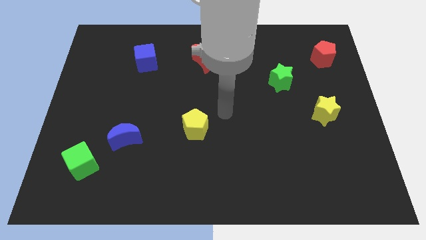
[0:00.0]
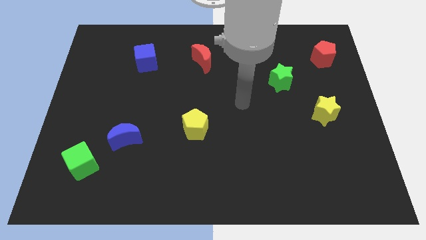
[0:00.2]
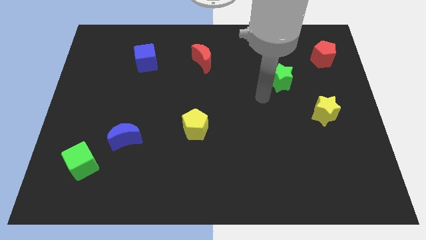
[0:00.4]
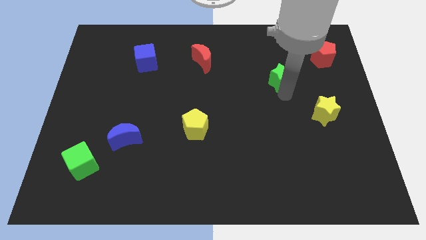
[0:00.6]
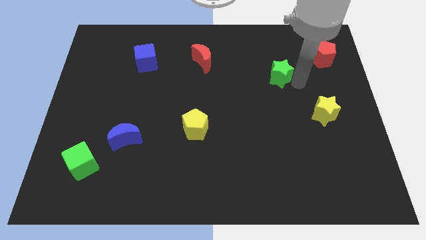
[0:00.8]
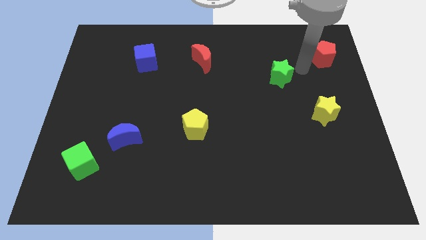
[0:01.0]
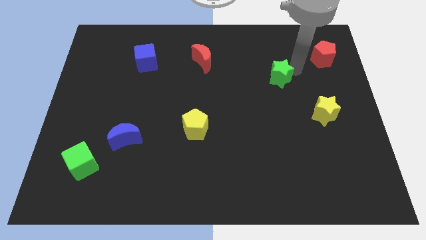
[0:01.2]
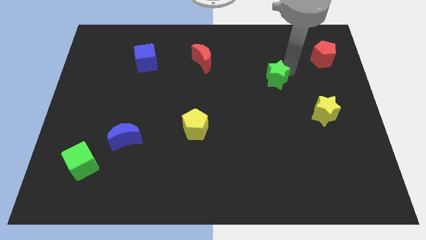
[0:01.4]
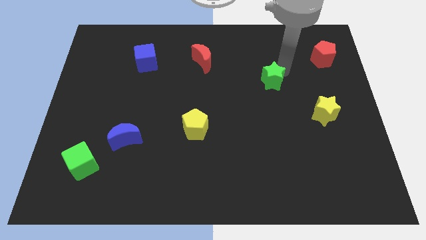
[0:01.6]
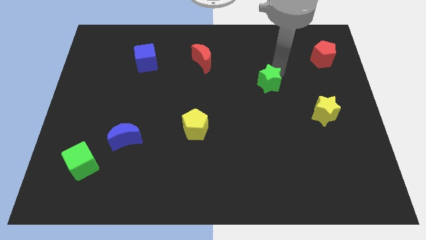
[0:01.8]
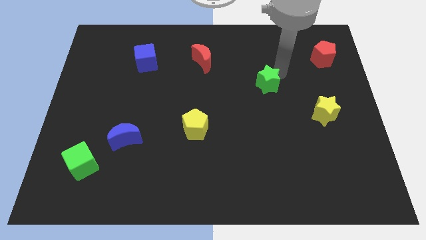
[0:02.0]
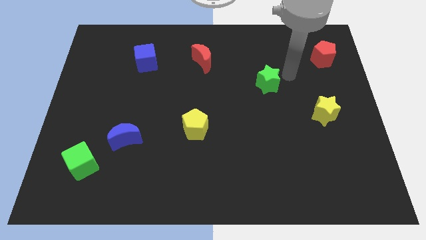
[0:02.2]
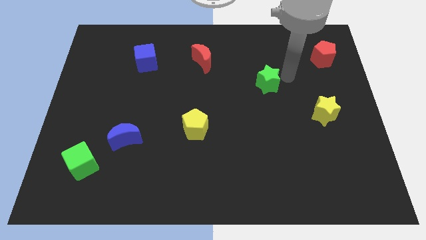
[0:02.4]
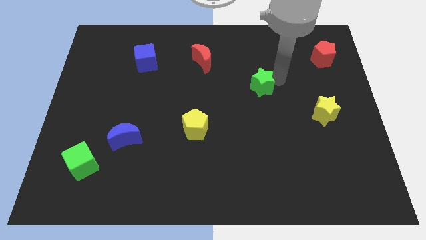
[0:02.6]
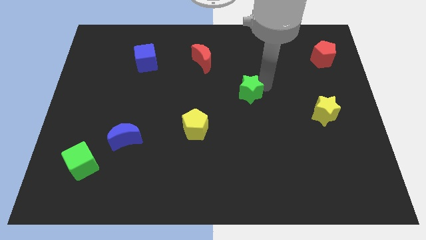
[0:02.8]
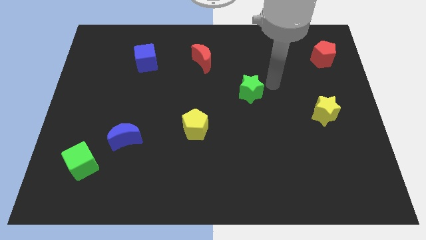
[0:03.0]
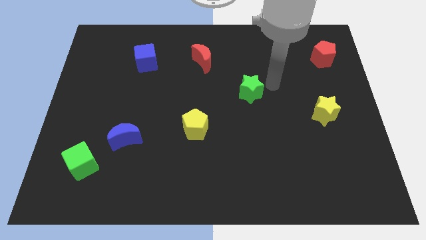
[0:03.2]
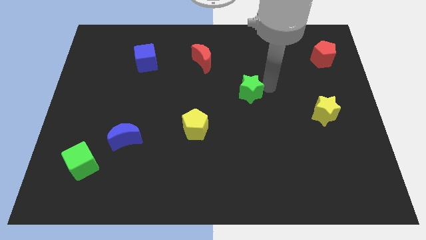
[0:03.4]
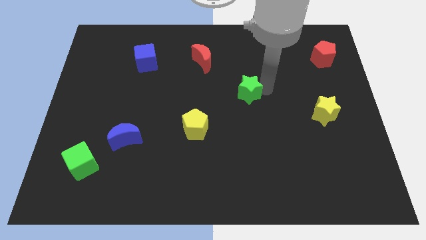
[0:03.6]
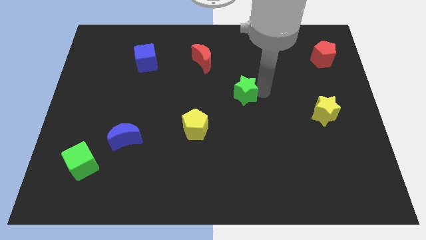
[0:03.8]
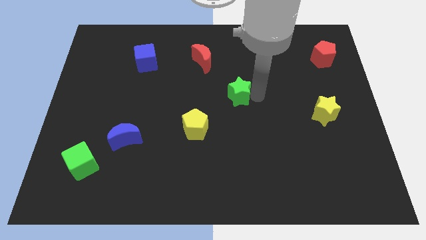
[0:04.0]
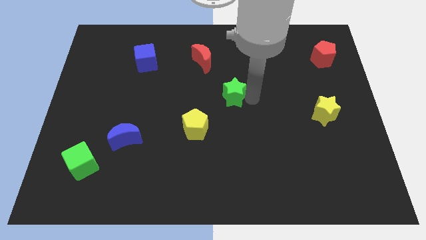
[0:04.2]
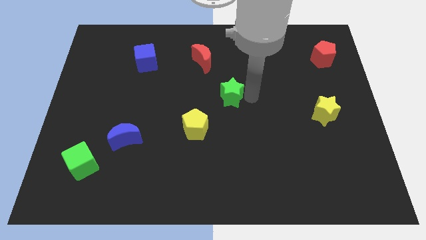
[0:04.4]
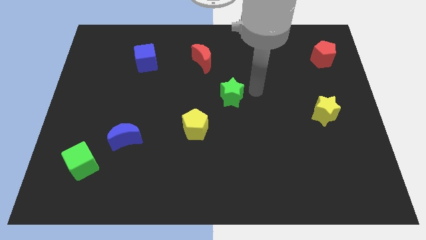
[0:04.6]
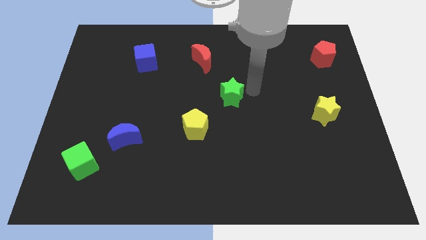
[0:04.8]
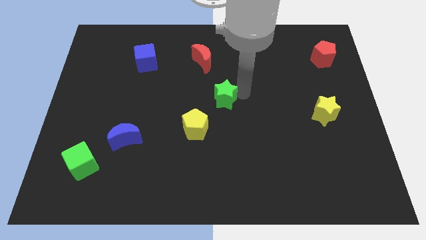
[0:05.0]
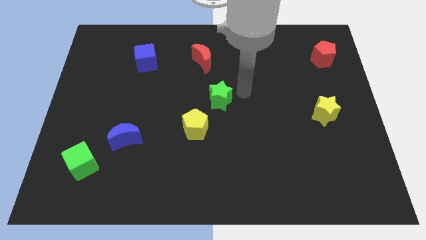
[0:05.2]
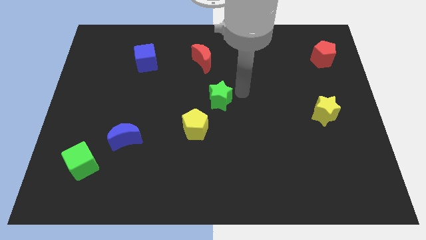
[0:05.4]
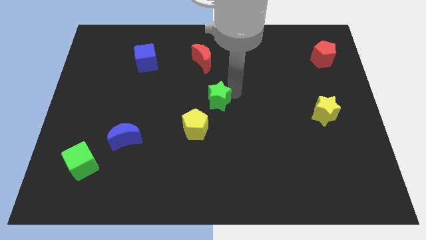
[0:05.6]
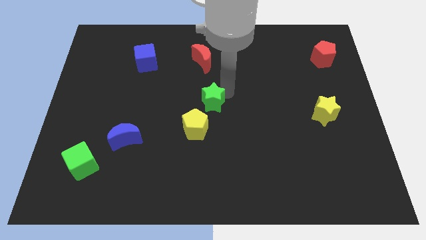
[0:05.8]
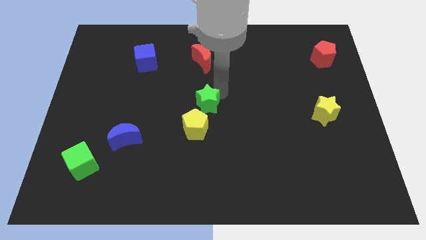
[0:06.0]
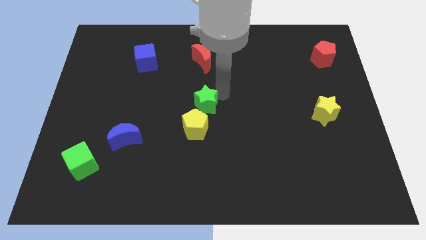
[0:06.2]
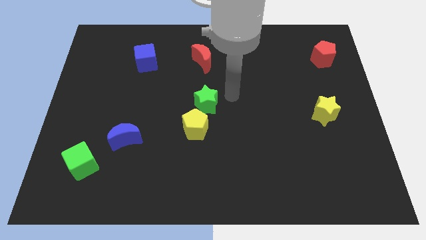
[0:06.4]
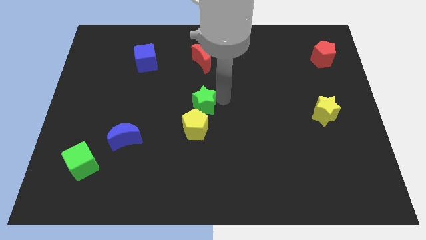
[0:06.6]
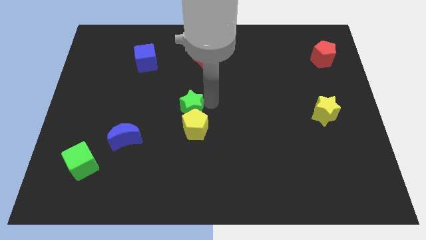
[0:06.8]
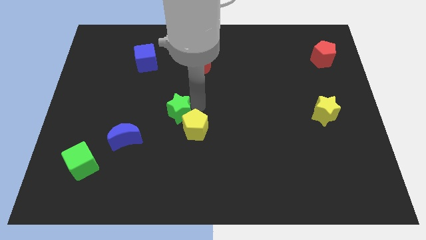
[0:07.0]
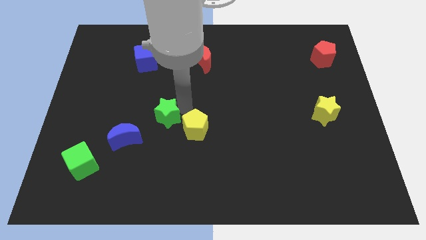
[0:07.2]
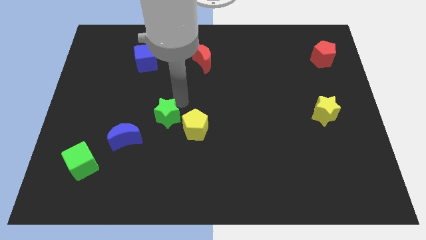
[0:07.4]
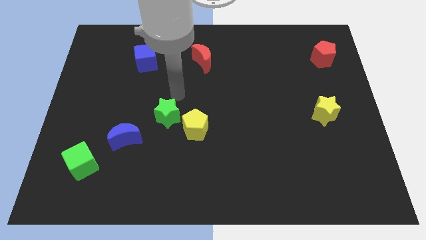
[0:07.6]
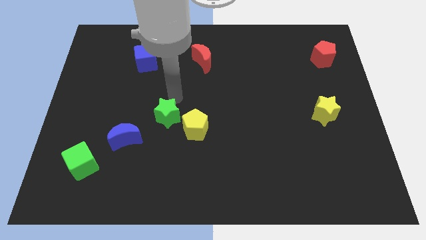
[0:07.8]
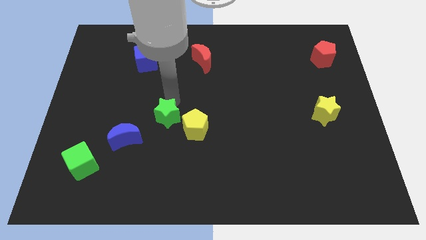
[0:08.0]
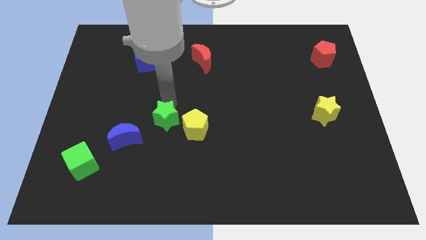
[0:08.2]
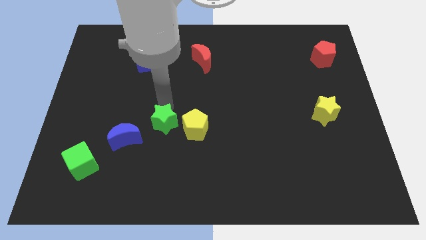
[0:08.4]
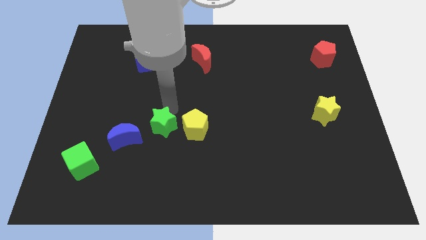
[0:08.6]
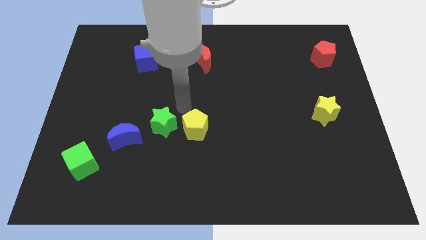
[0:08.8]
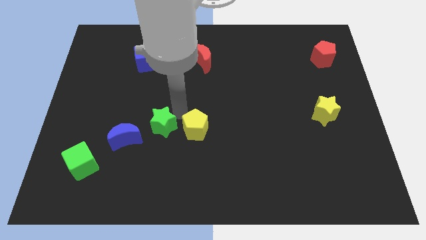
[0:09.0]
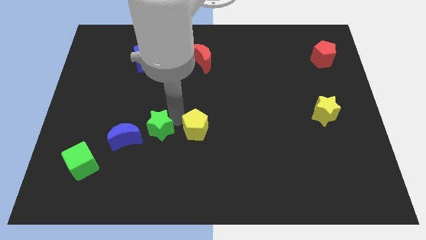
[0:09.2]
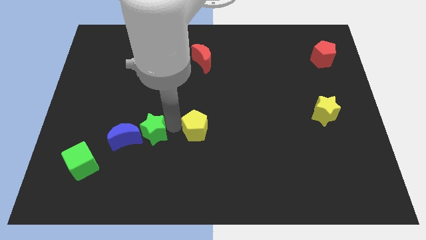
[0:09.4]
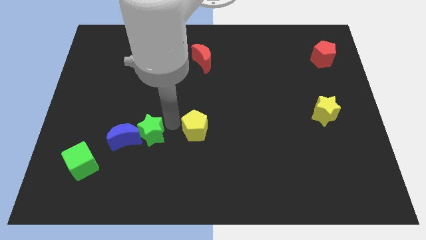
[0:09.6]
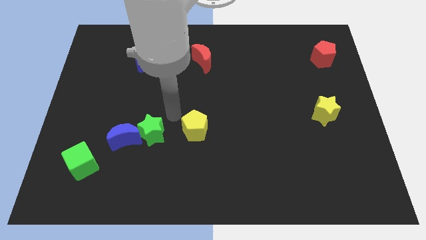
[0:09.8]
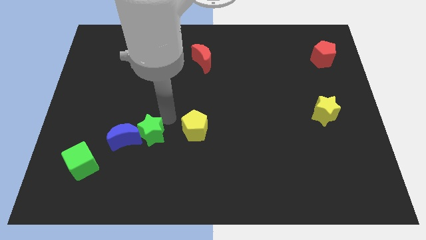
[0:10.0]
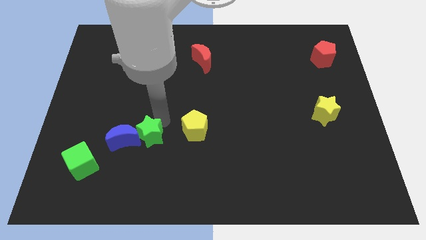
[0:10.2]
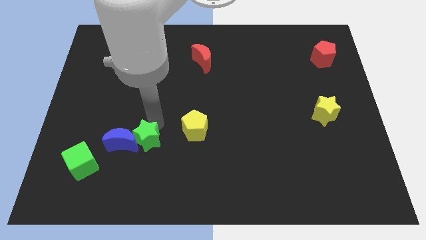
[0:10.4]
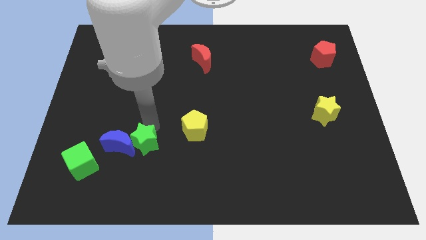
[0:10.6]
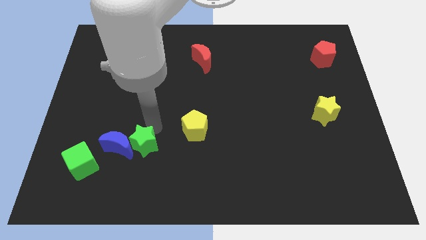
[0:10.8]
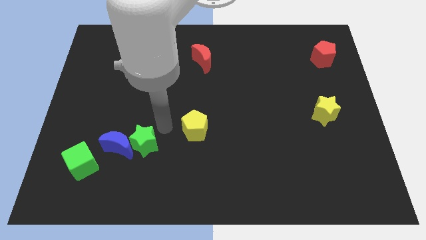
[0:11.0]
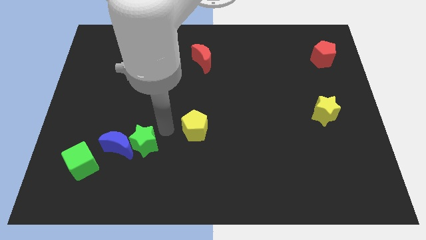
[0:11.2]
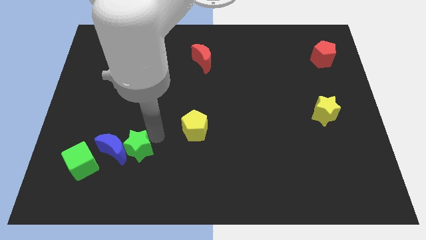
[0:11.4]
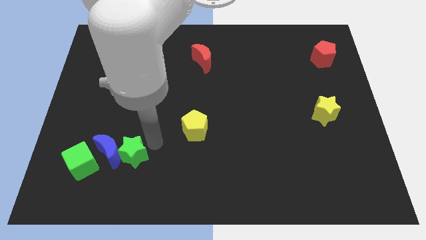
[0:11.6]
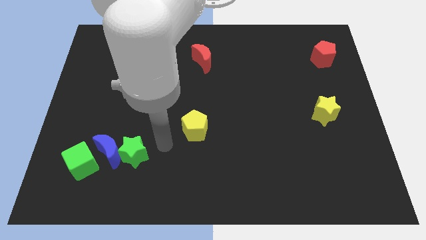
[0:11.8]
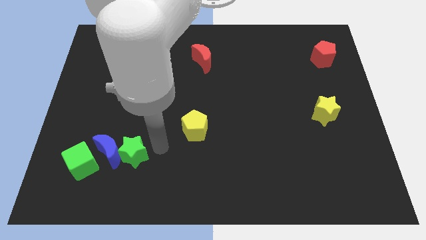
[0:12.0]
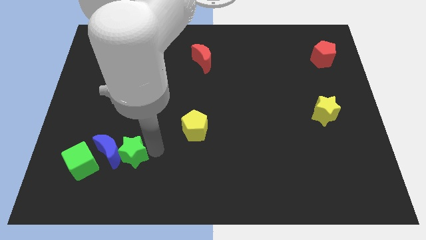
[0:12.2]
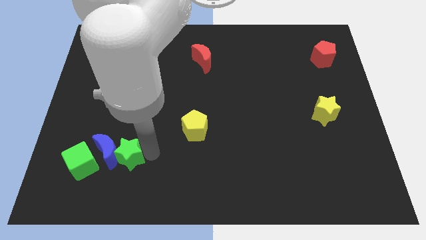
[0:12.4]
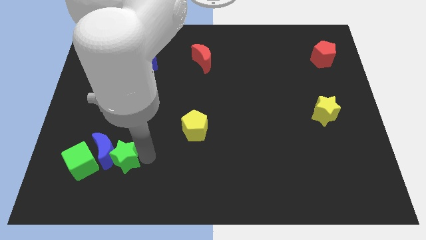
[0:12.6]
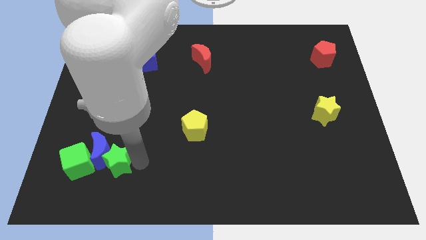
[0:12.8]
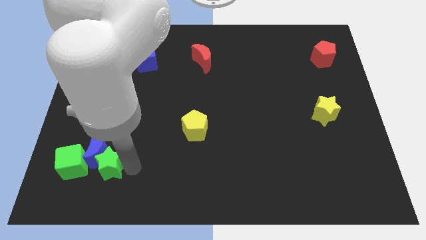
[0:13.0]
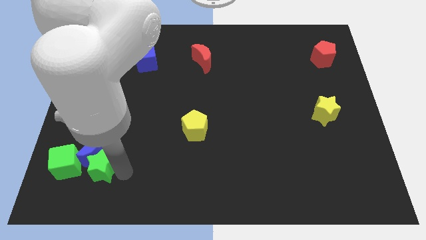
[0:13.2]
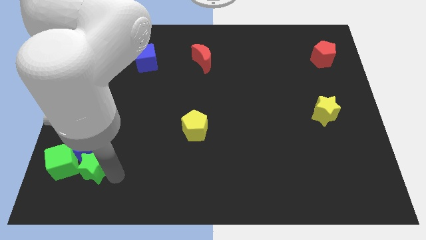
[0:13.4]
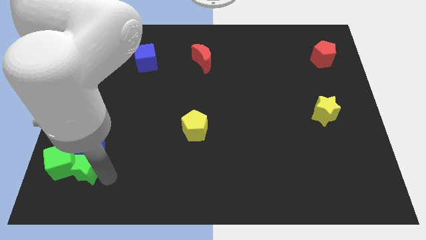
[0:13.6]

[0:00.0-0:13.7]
push the green star close to the green cube

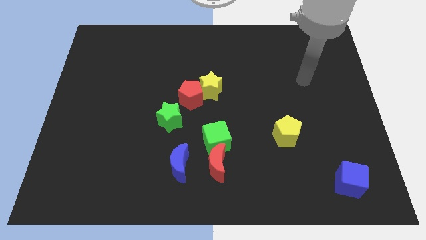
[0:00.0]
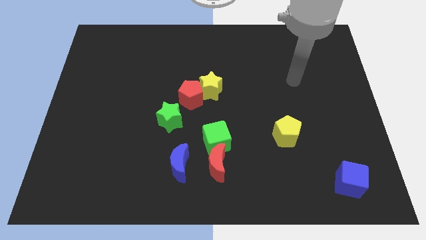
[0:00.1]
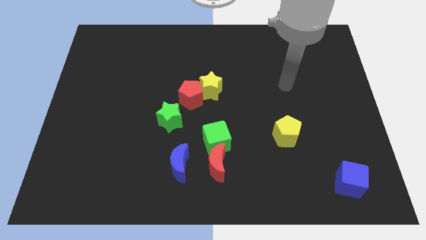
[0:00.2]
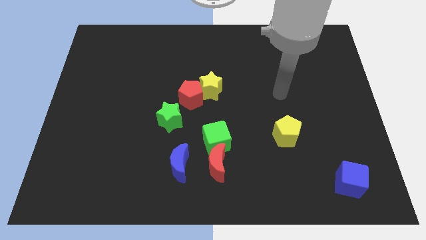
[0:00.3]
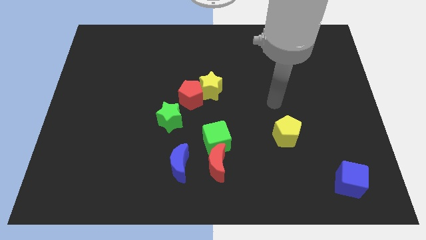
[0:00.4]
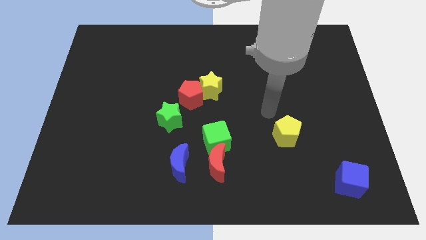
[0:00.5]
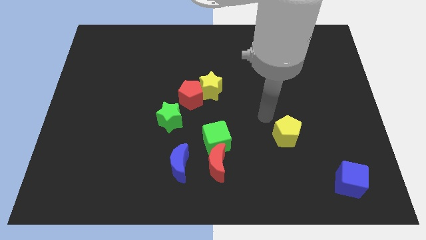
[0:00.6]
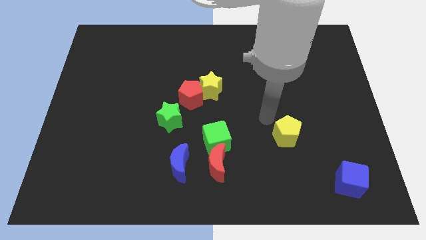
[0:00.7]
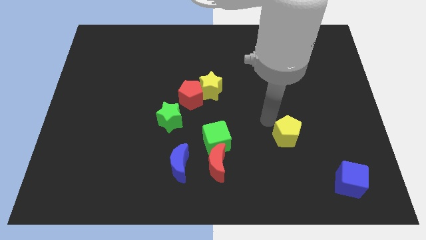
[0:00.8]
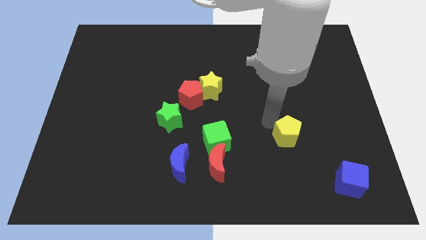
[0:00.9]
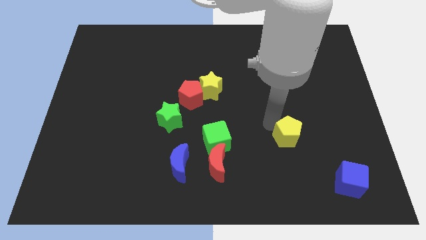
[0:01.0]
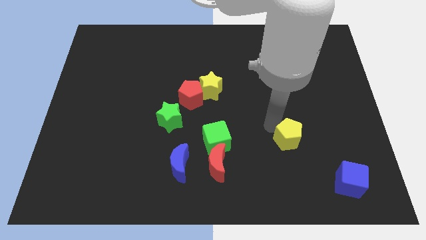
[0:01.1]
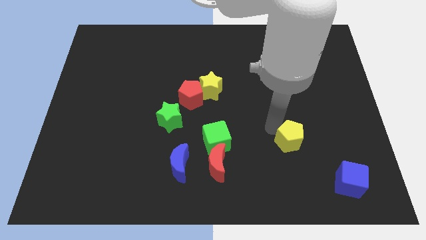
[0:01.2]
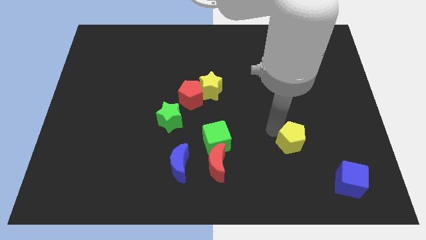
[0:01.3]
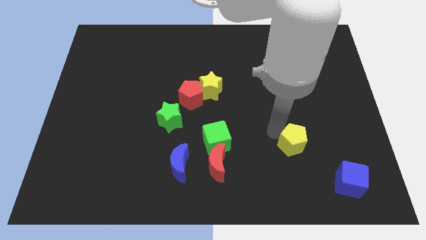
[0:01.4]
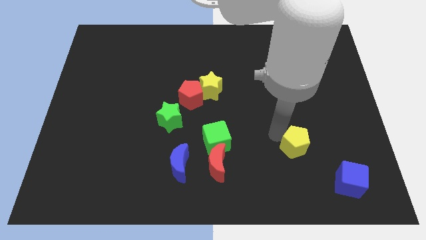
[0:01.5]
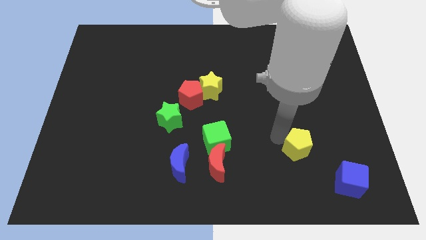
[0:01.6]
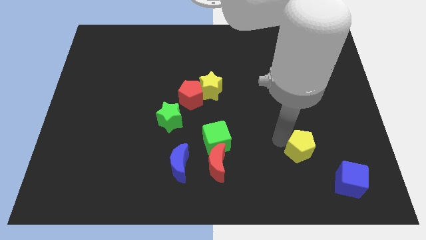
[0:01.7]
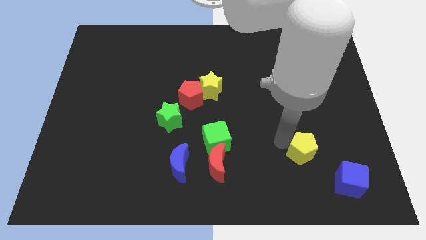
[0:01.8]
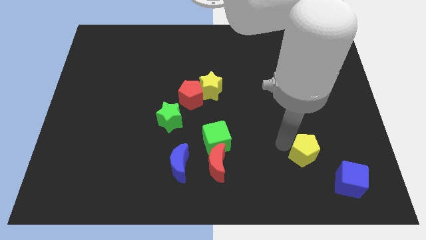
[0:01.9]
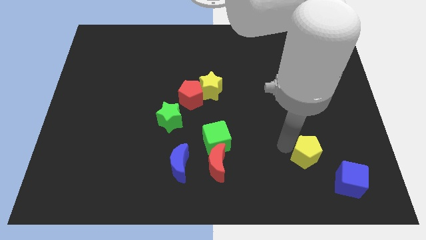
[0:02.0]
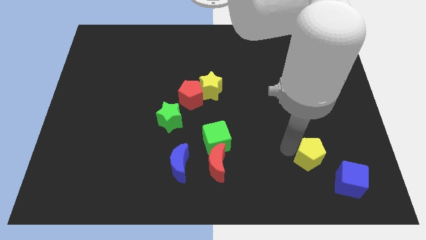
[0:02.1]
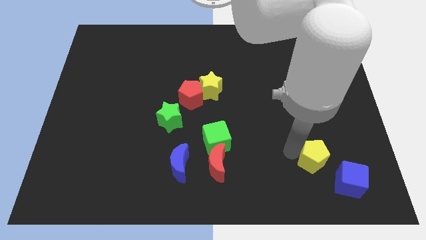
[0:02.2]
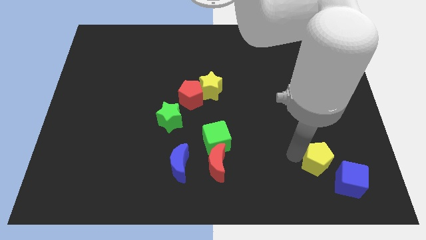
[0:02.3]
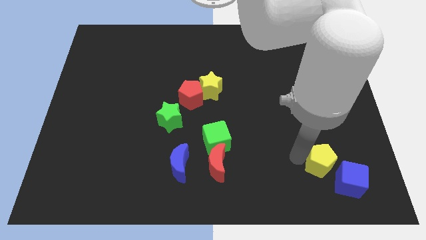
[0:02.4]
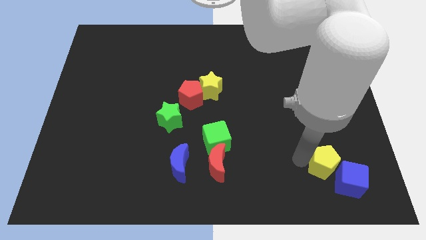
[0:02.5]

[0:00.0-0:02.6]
move the yellow pentagon to the blue cube
